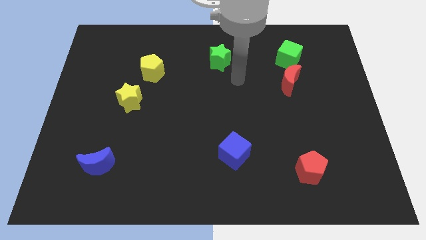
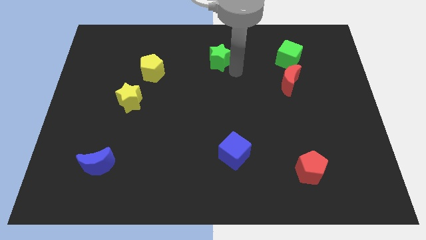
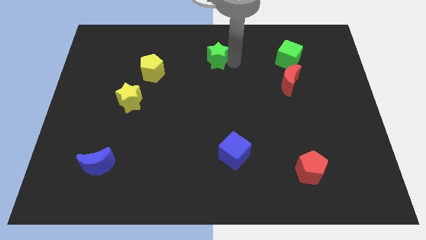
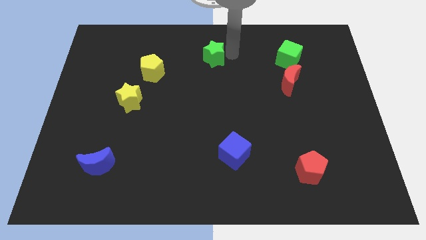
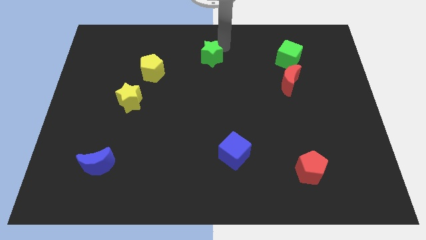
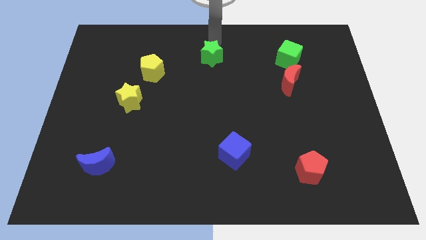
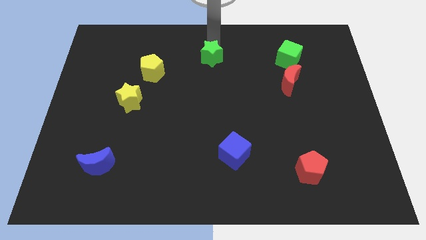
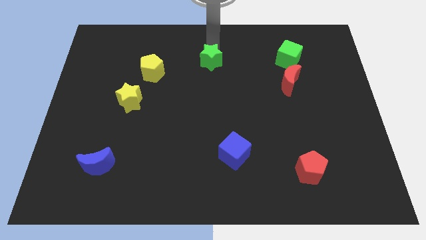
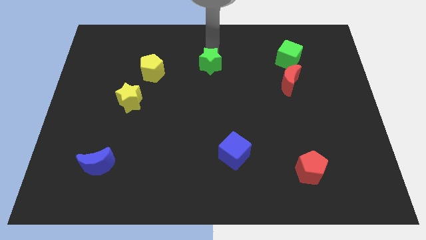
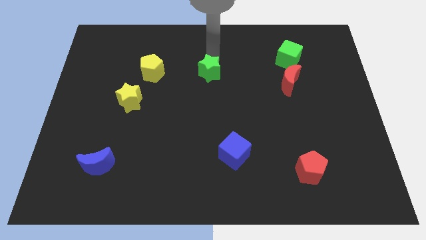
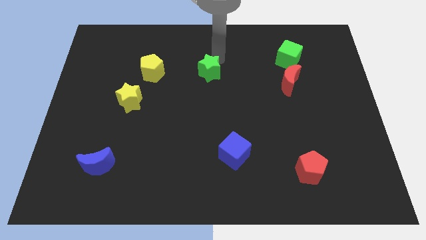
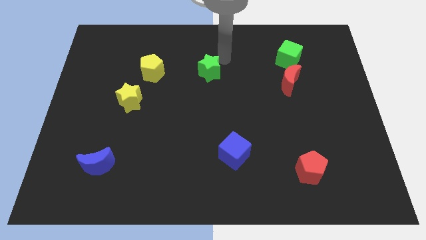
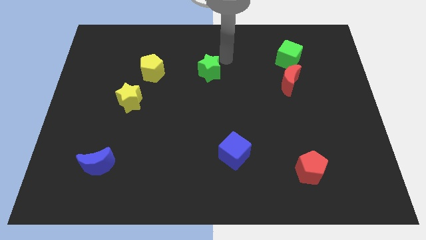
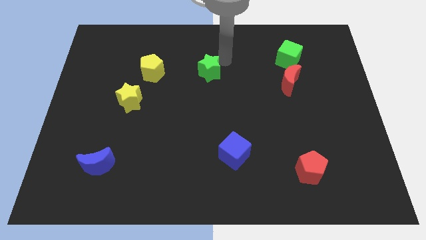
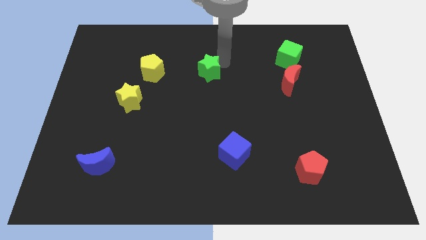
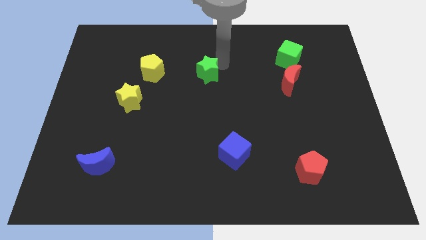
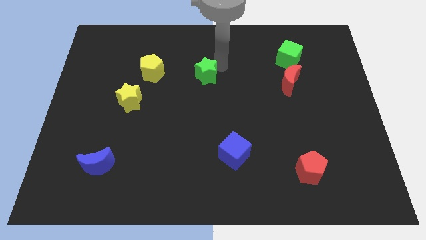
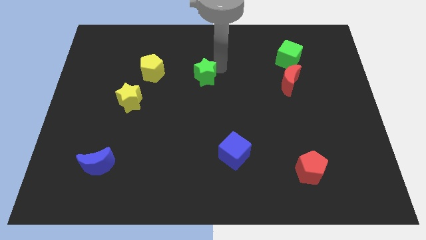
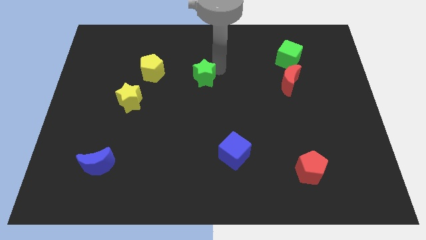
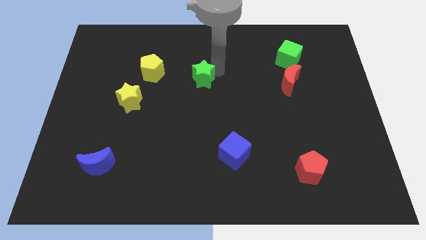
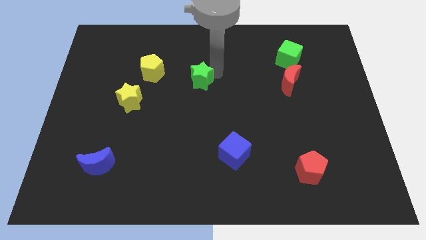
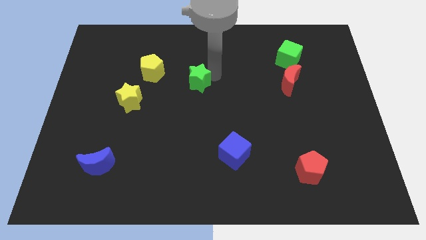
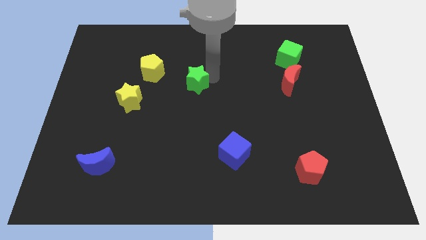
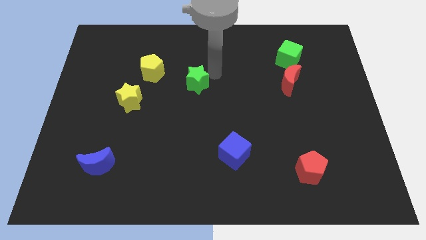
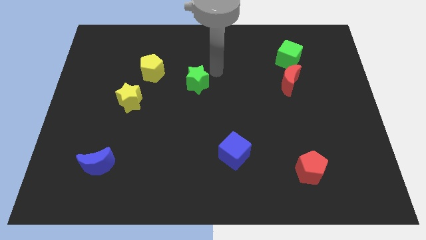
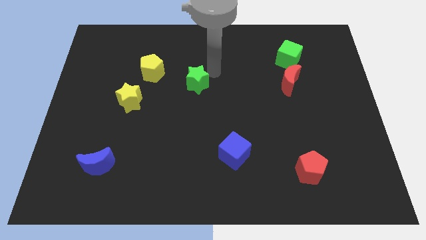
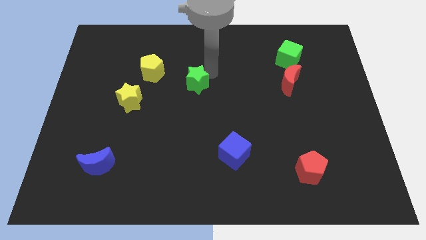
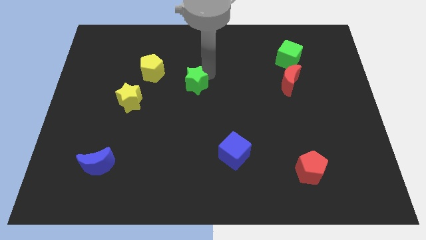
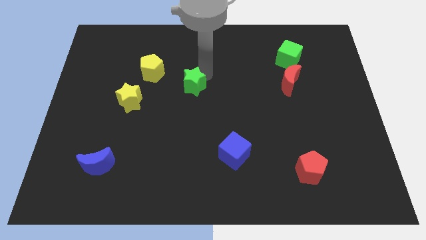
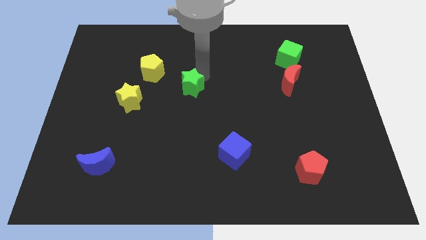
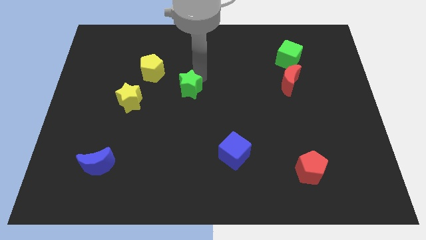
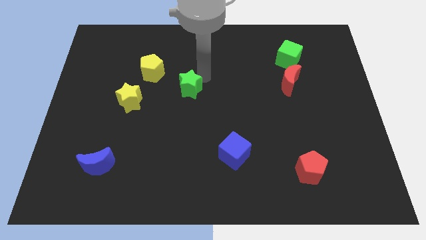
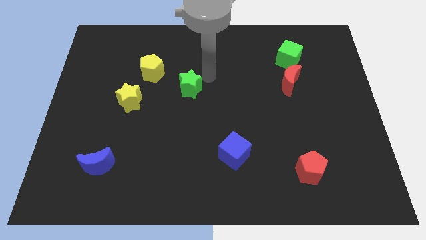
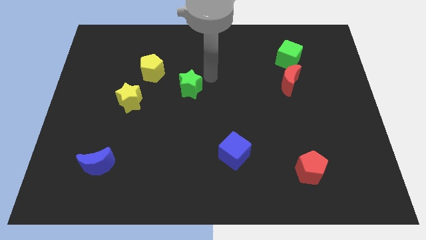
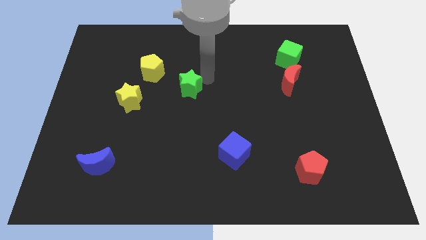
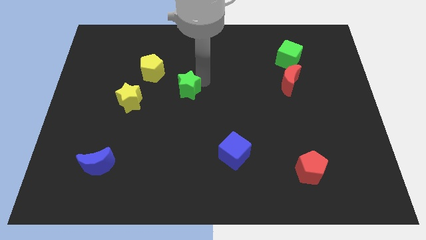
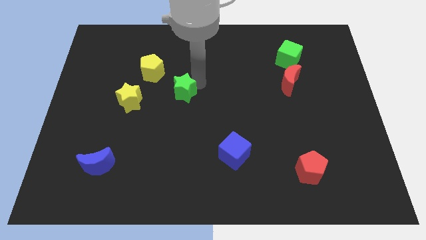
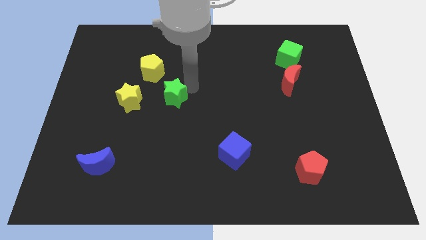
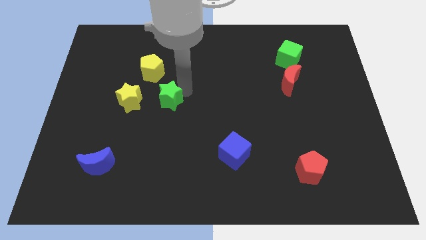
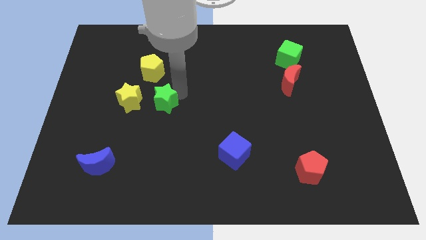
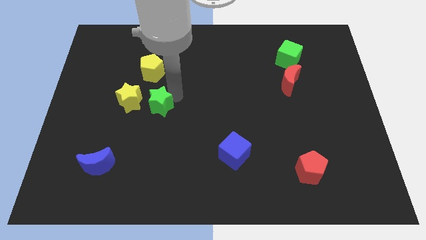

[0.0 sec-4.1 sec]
push the green star downwards and left diagonally

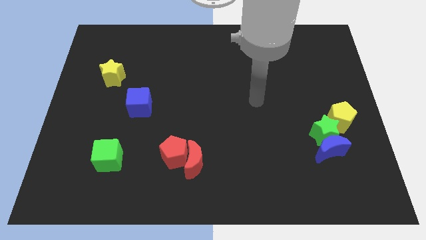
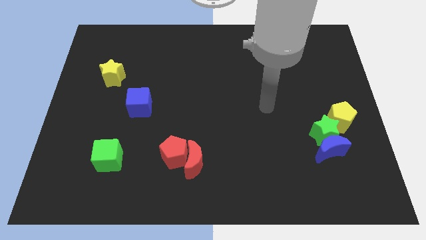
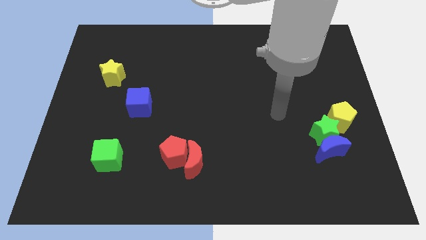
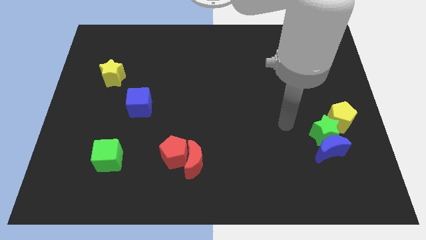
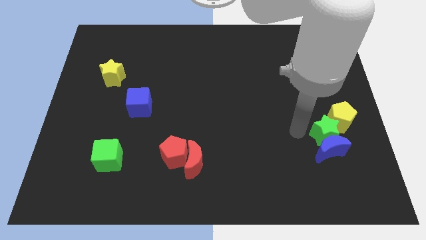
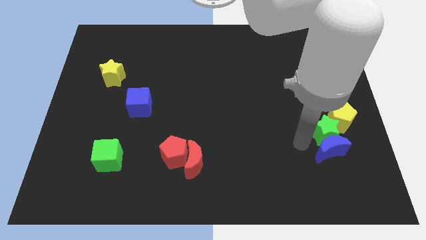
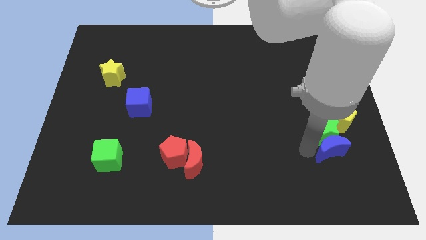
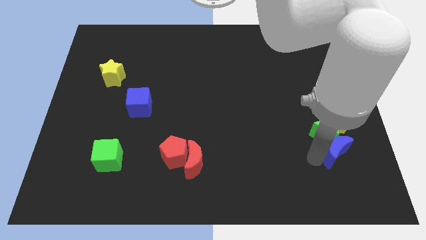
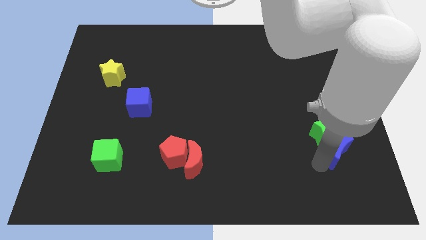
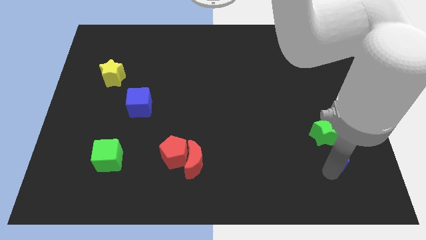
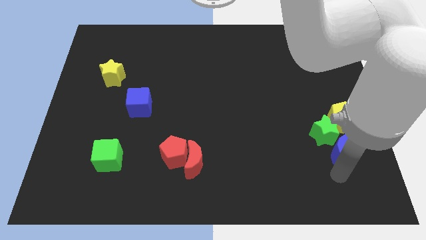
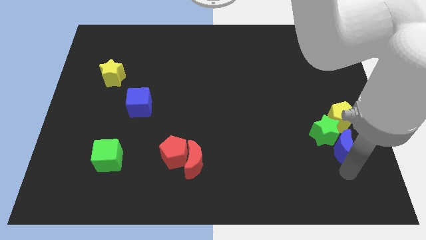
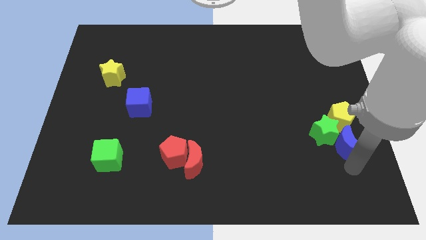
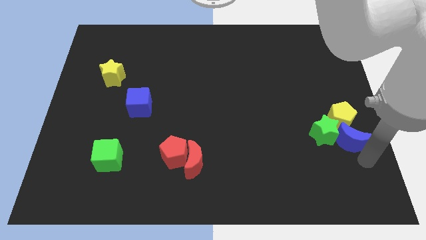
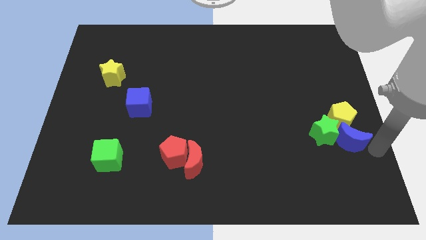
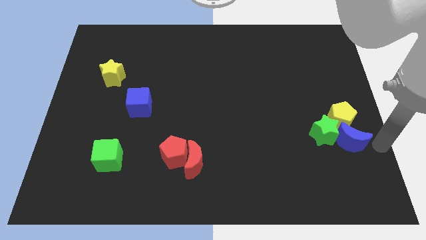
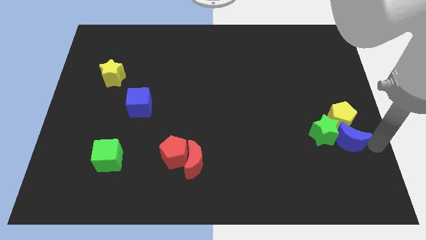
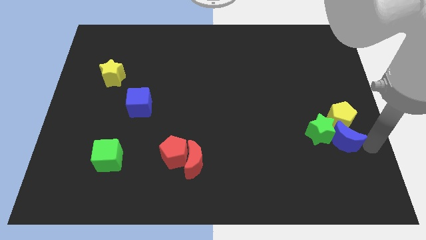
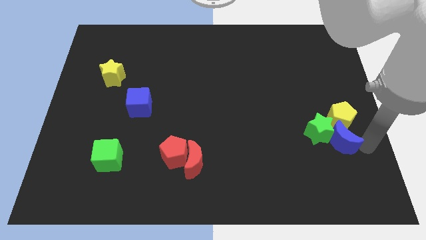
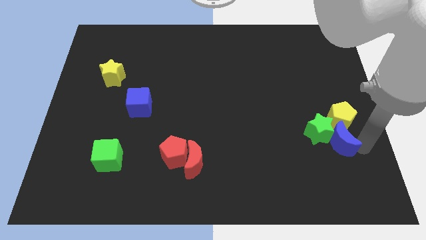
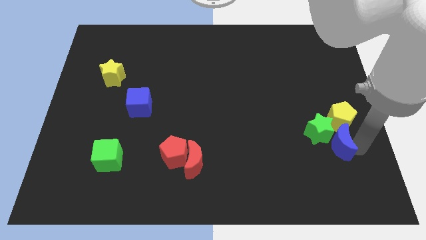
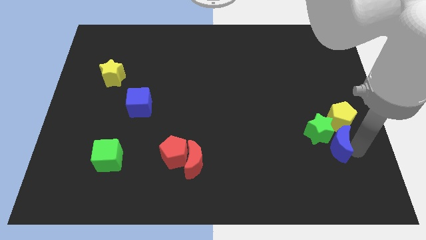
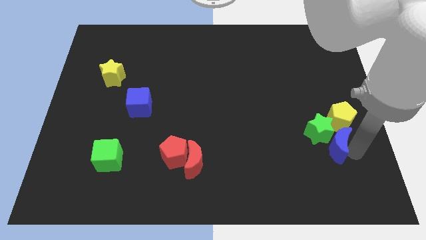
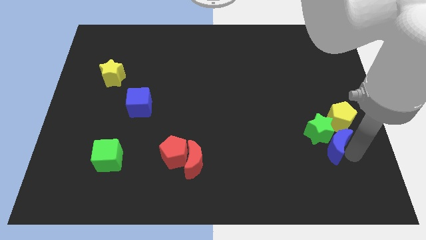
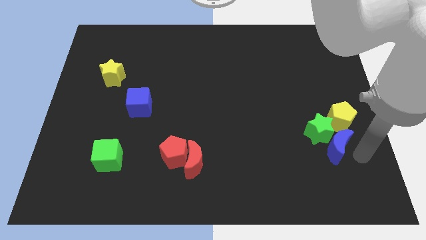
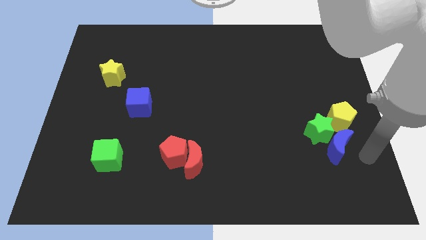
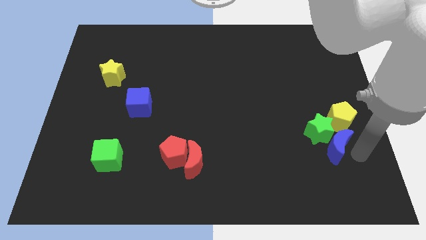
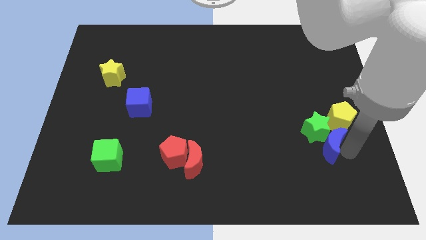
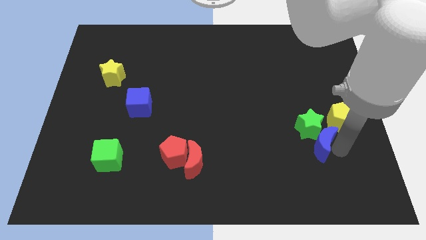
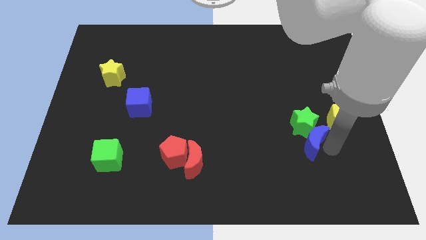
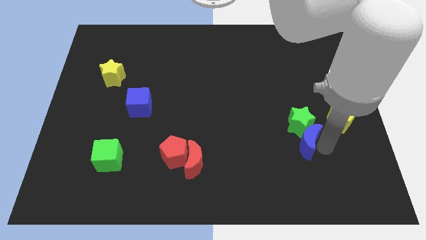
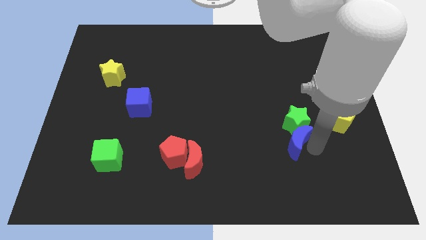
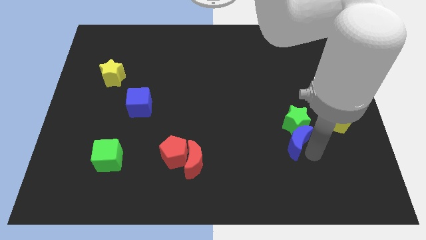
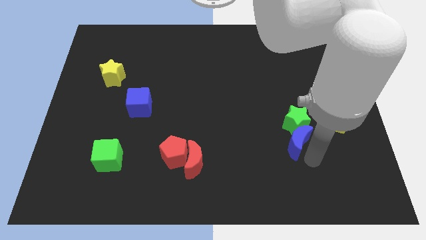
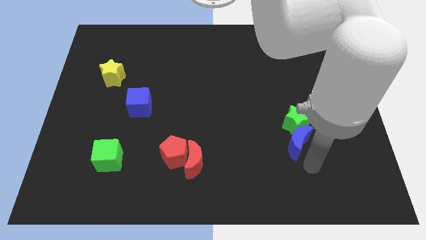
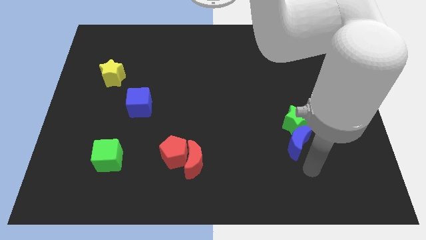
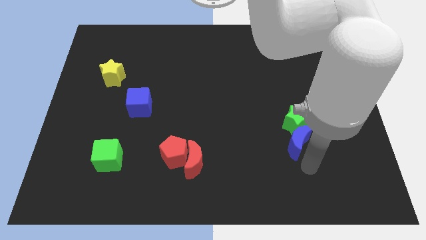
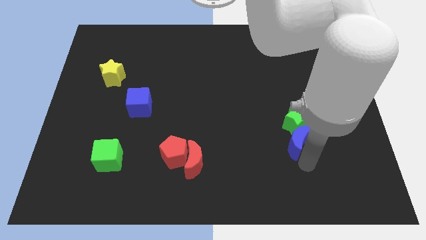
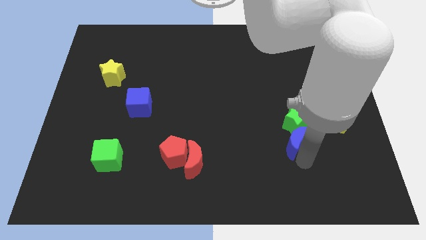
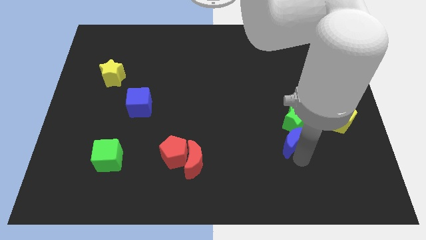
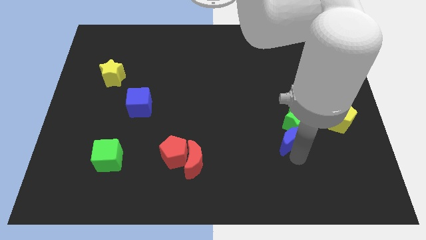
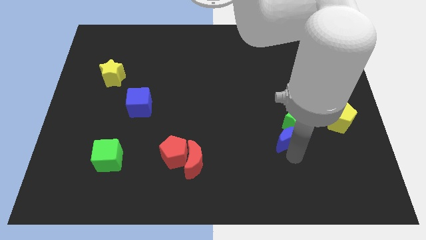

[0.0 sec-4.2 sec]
slide the blue moon up and then left a bit
